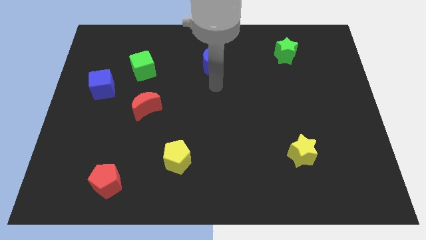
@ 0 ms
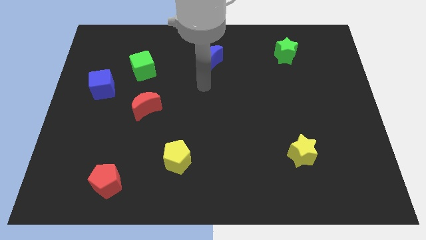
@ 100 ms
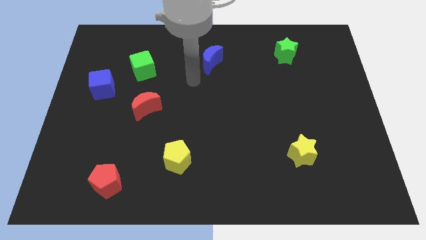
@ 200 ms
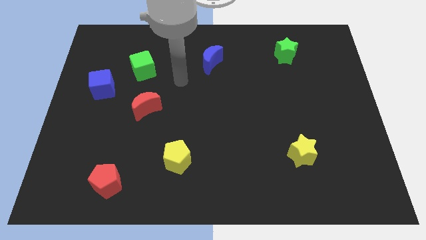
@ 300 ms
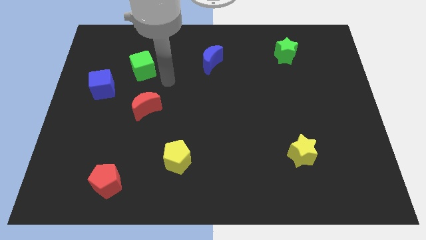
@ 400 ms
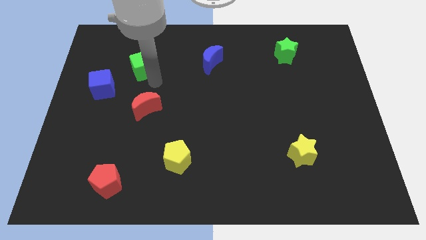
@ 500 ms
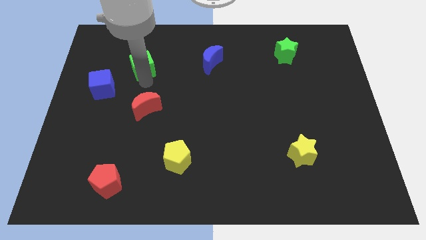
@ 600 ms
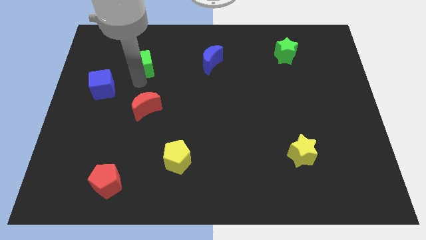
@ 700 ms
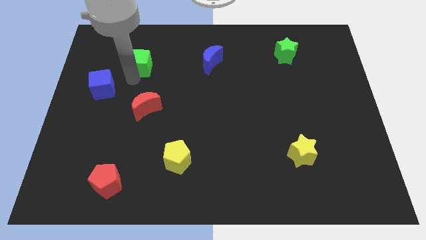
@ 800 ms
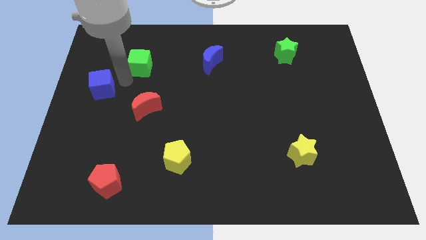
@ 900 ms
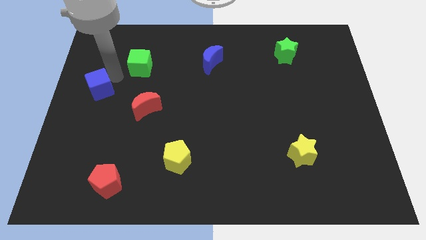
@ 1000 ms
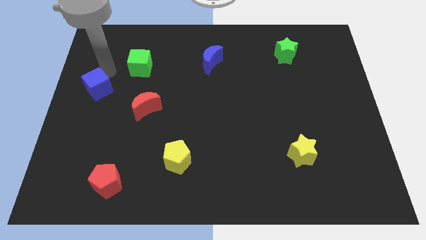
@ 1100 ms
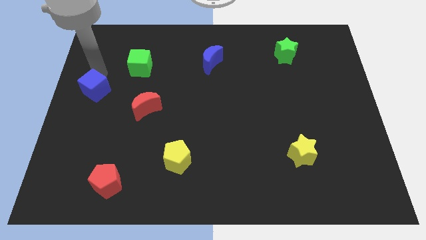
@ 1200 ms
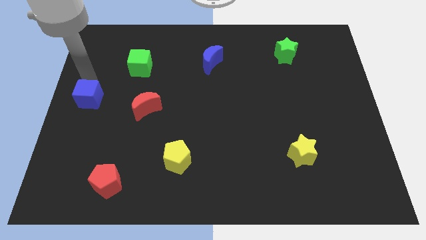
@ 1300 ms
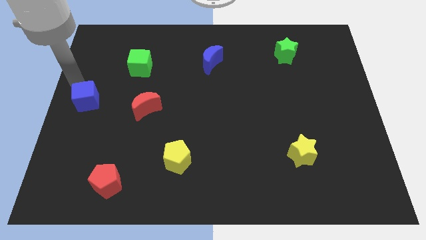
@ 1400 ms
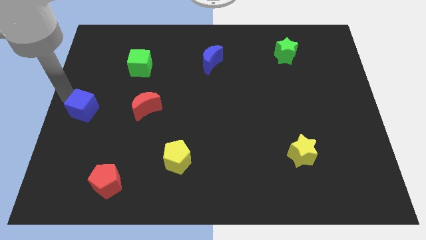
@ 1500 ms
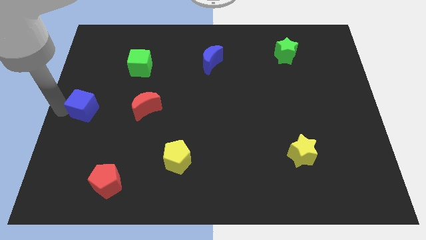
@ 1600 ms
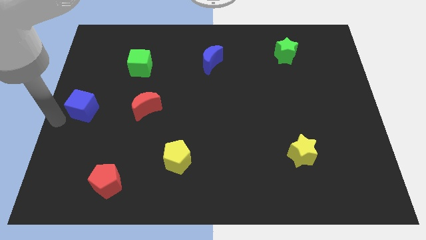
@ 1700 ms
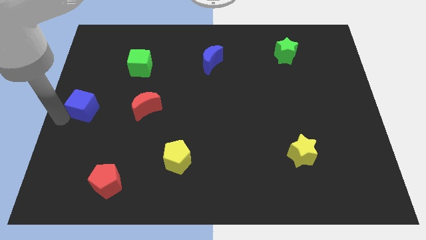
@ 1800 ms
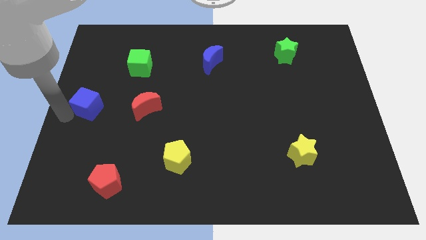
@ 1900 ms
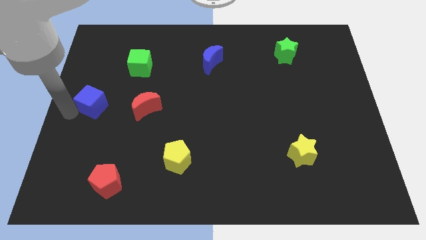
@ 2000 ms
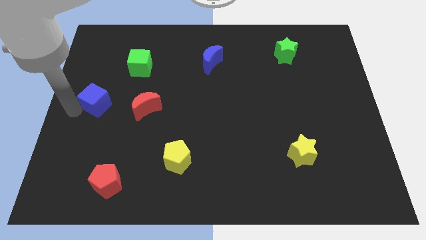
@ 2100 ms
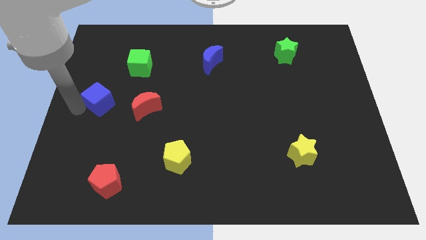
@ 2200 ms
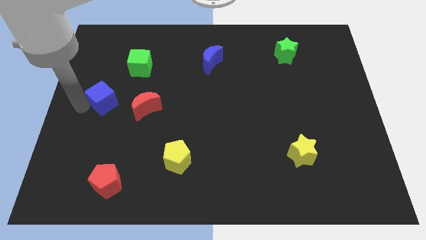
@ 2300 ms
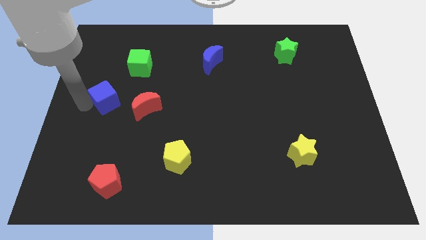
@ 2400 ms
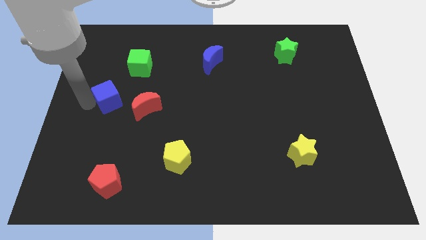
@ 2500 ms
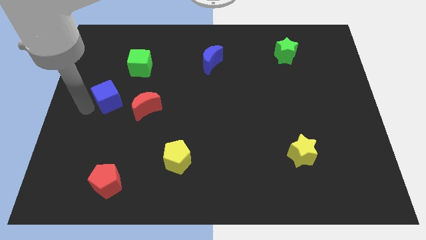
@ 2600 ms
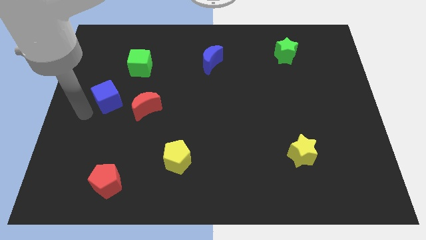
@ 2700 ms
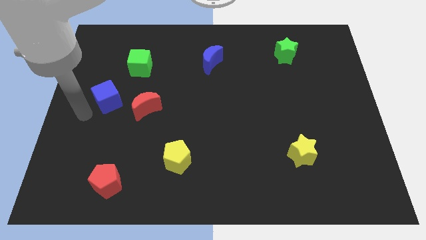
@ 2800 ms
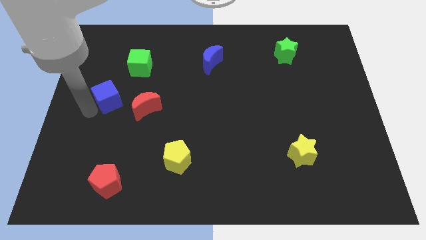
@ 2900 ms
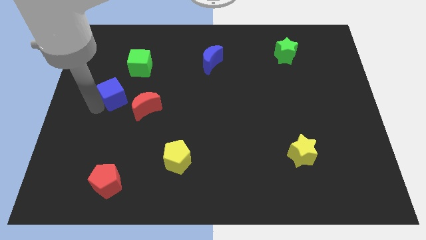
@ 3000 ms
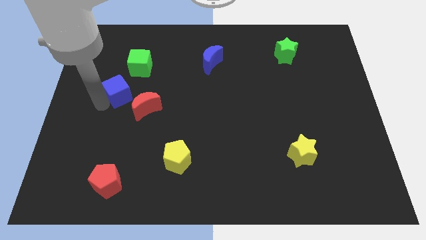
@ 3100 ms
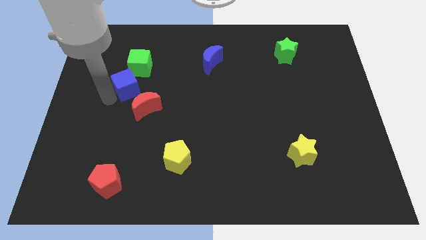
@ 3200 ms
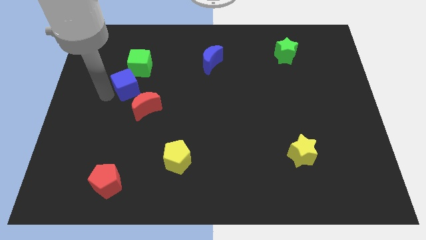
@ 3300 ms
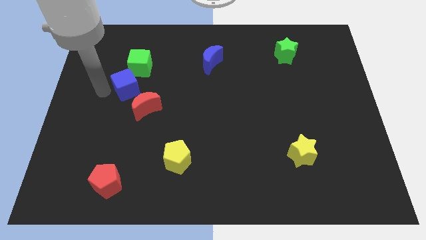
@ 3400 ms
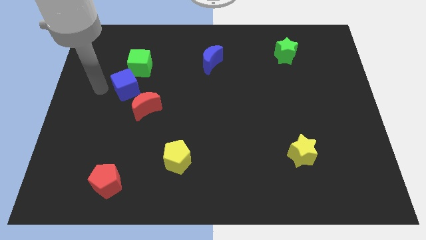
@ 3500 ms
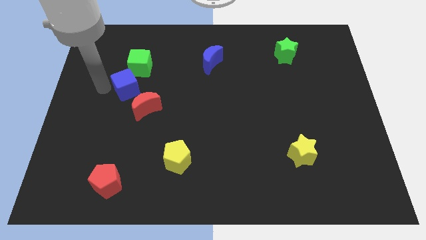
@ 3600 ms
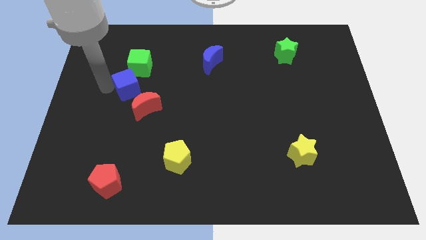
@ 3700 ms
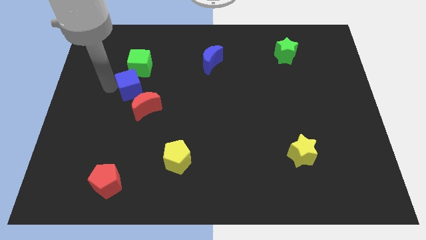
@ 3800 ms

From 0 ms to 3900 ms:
slide the blue cube a bit right

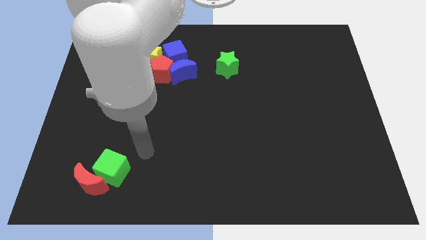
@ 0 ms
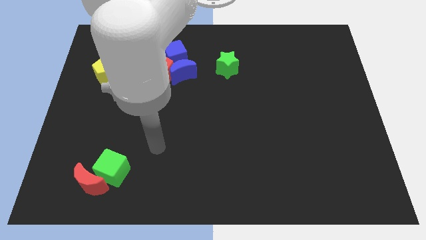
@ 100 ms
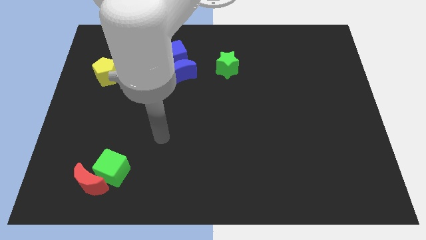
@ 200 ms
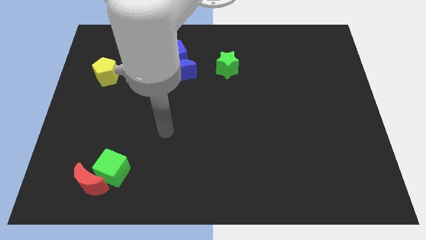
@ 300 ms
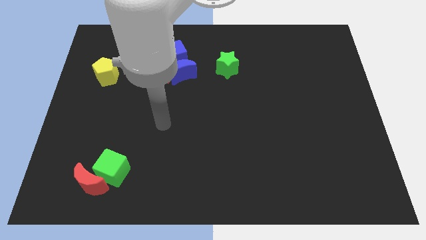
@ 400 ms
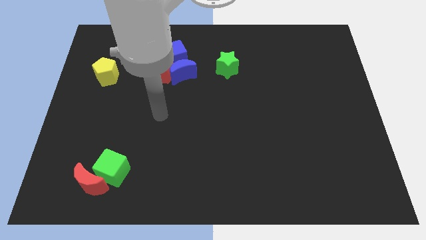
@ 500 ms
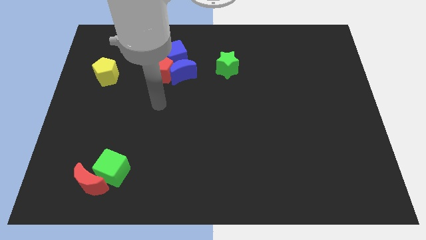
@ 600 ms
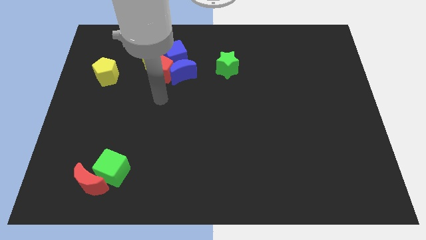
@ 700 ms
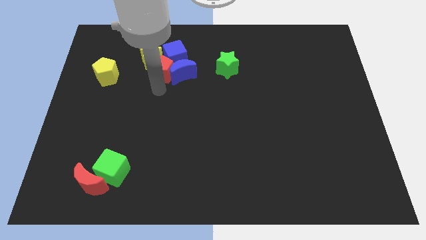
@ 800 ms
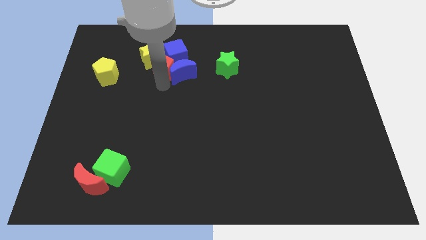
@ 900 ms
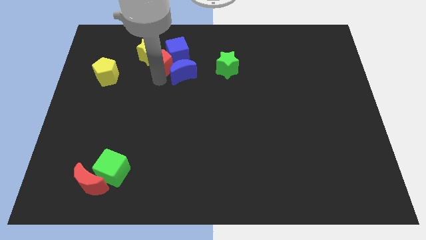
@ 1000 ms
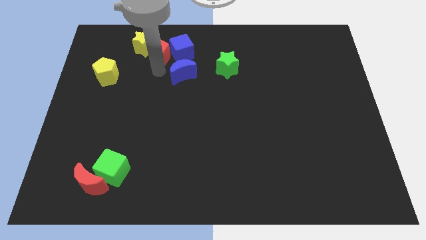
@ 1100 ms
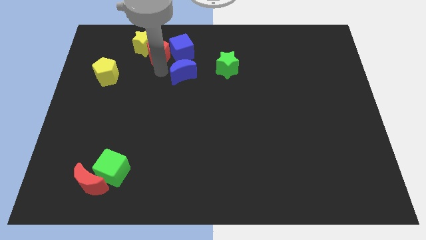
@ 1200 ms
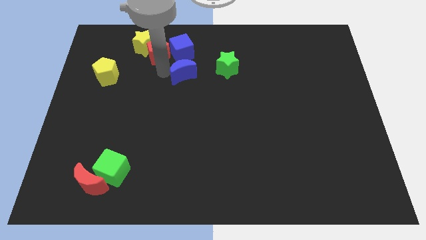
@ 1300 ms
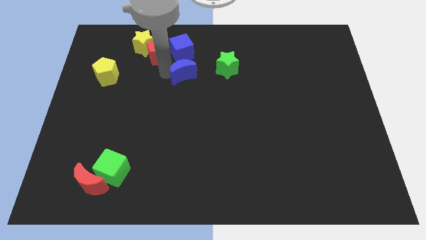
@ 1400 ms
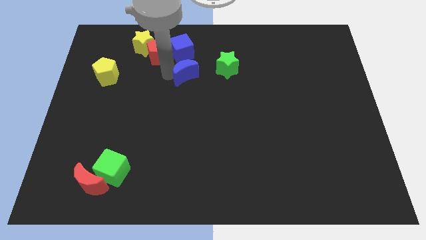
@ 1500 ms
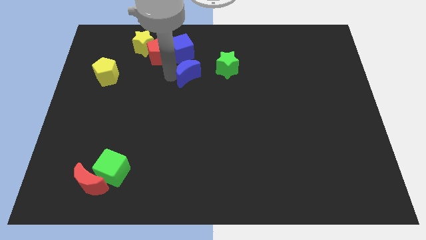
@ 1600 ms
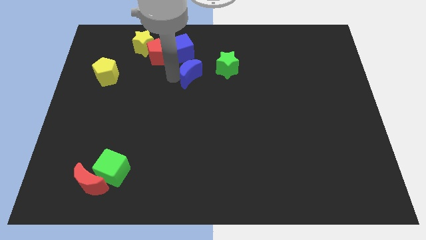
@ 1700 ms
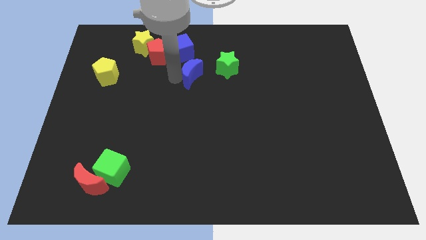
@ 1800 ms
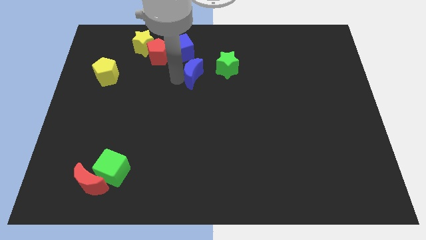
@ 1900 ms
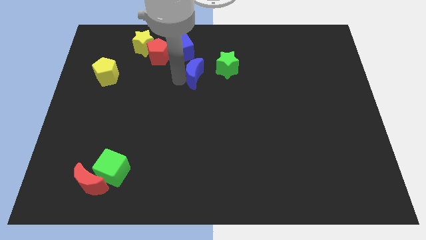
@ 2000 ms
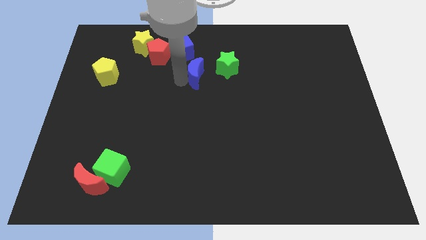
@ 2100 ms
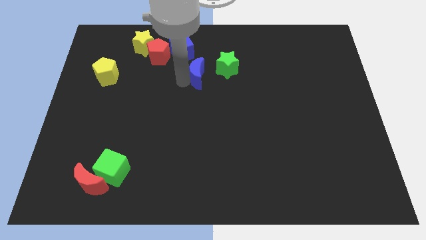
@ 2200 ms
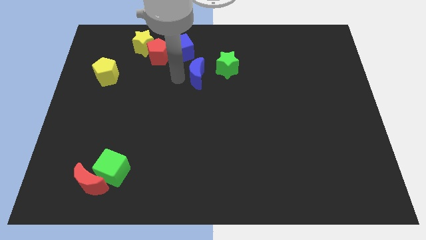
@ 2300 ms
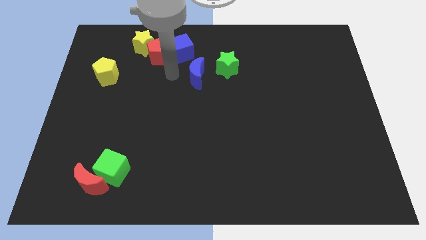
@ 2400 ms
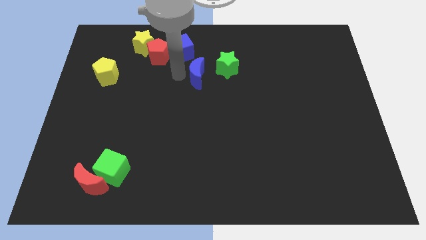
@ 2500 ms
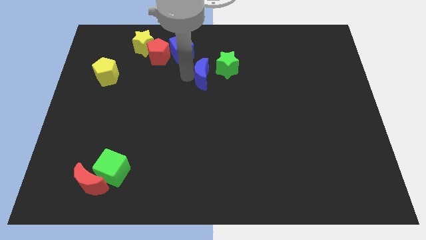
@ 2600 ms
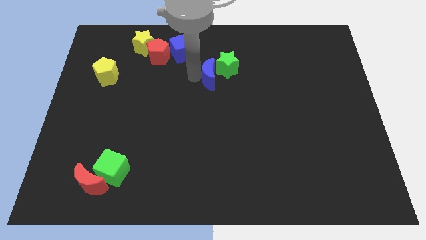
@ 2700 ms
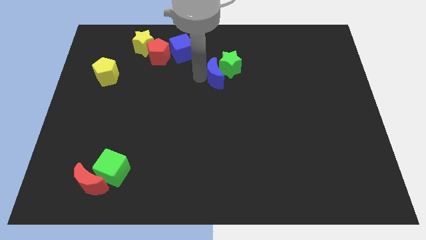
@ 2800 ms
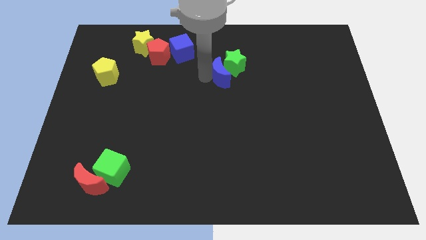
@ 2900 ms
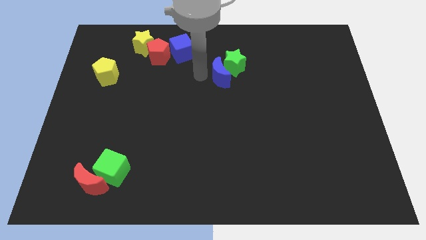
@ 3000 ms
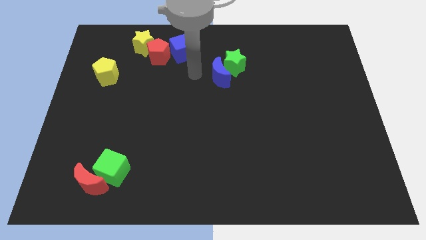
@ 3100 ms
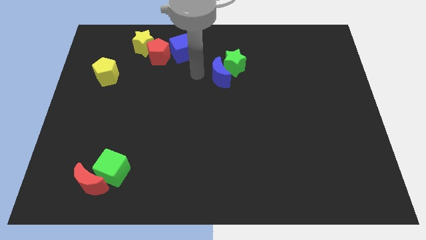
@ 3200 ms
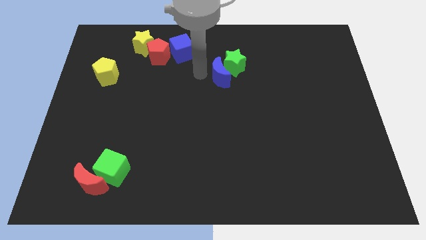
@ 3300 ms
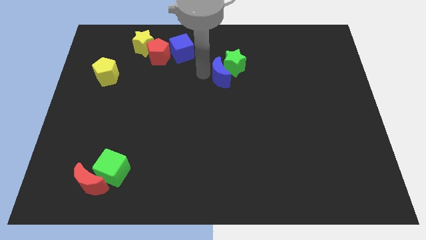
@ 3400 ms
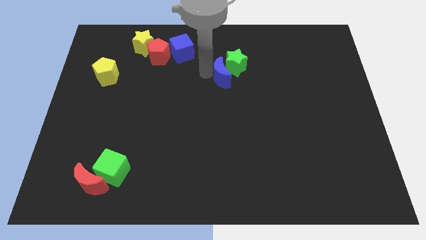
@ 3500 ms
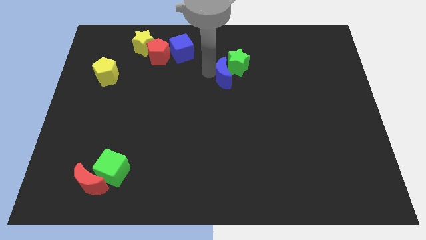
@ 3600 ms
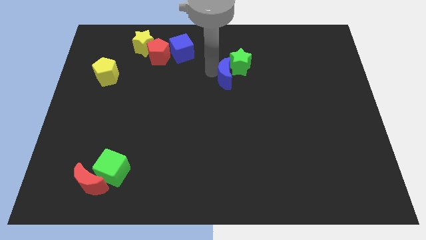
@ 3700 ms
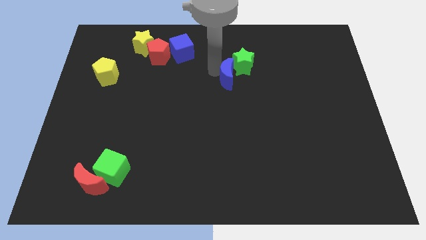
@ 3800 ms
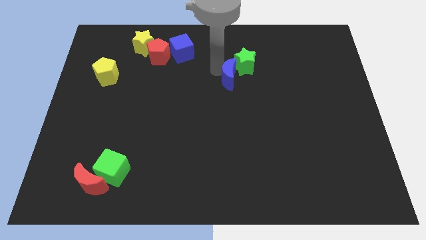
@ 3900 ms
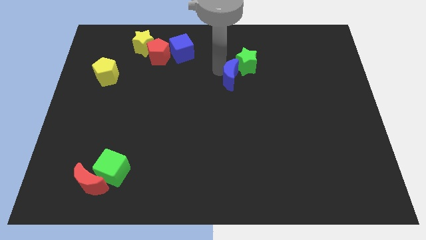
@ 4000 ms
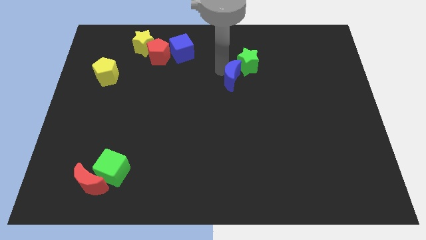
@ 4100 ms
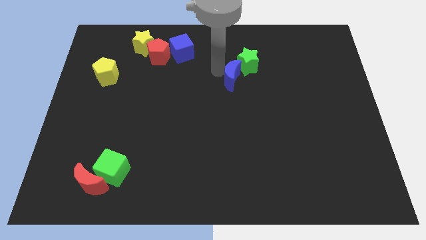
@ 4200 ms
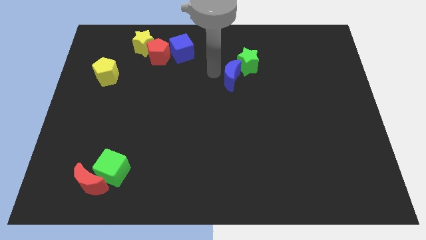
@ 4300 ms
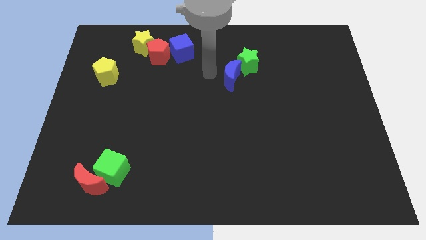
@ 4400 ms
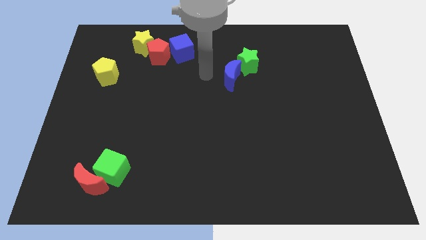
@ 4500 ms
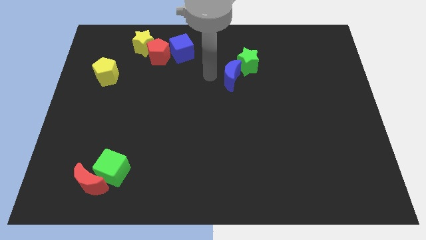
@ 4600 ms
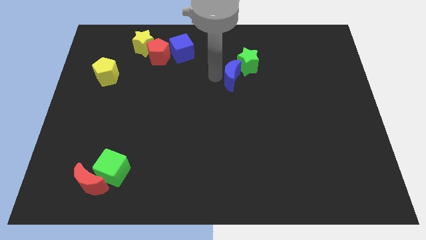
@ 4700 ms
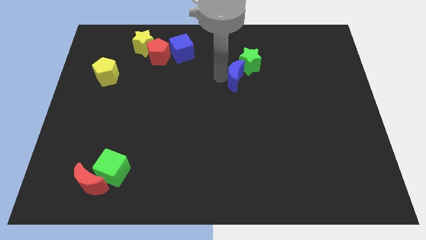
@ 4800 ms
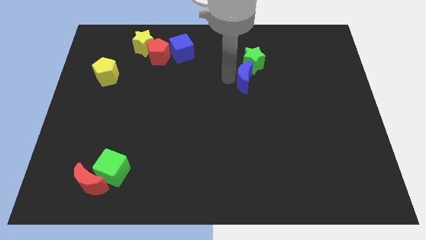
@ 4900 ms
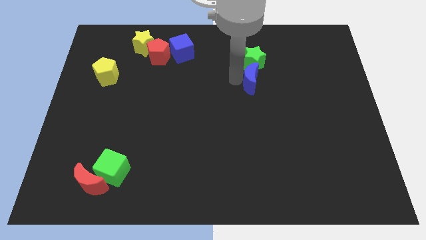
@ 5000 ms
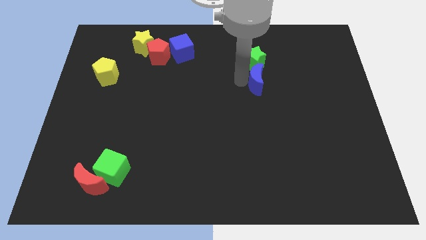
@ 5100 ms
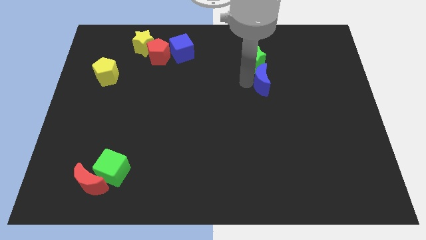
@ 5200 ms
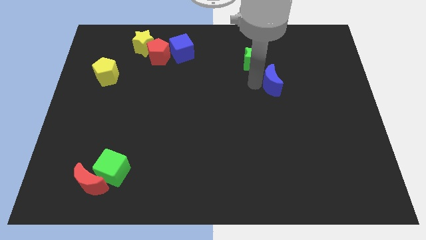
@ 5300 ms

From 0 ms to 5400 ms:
push the blue moon to the right
